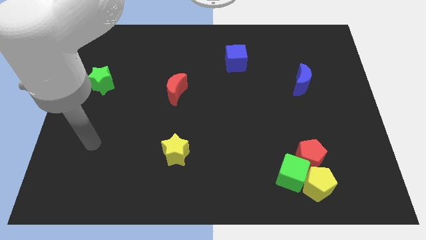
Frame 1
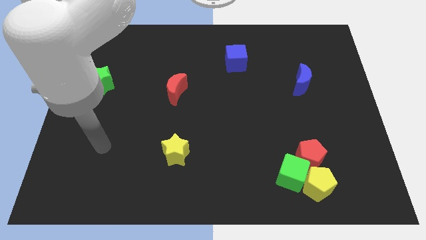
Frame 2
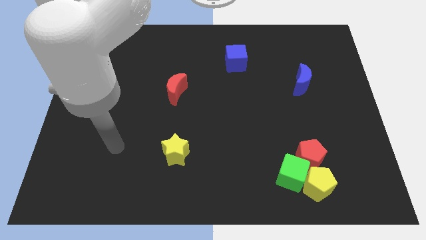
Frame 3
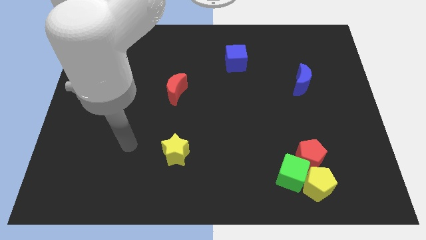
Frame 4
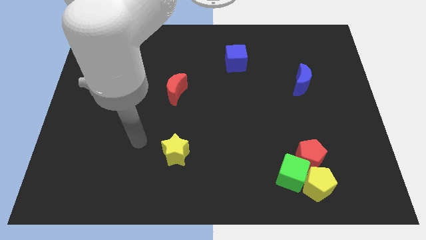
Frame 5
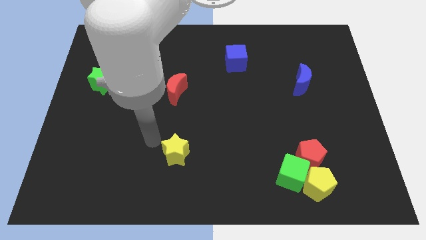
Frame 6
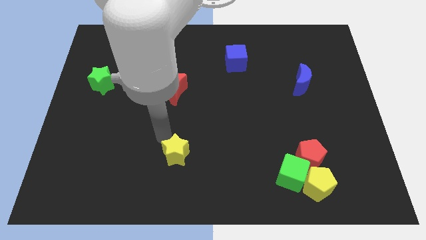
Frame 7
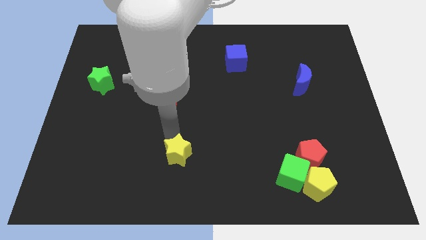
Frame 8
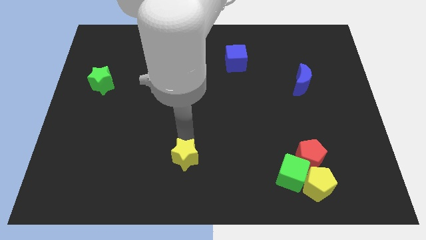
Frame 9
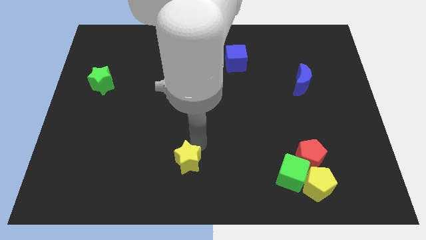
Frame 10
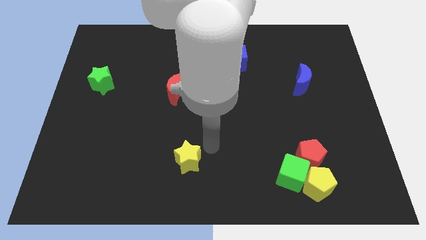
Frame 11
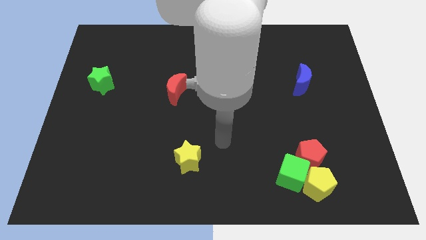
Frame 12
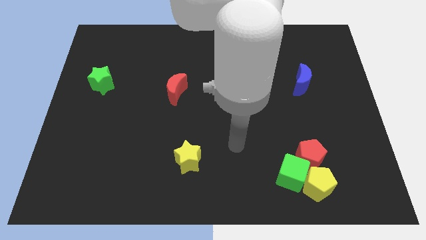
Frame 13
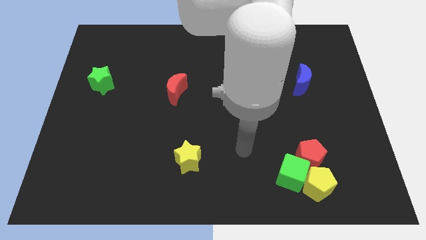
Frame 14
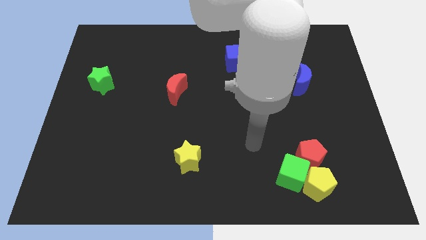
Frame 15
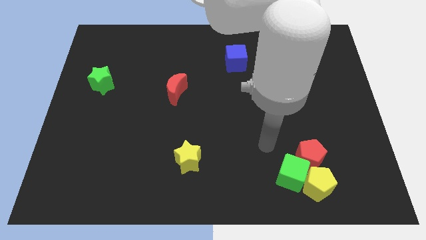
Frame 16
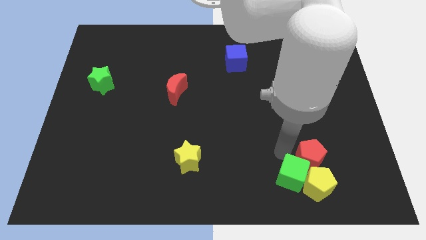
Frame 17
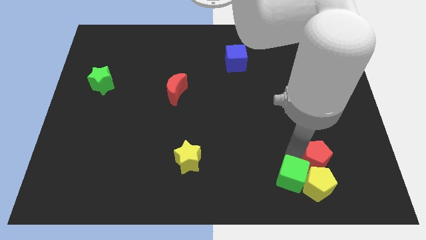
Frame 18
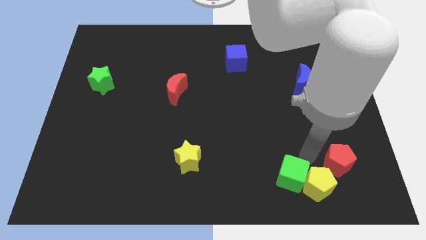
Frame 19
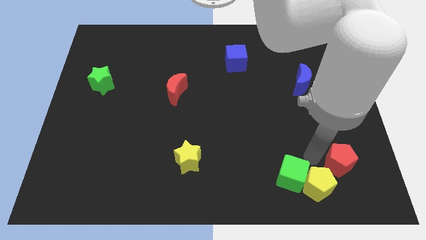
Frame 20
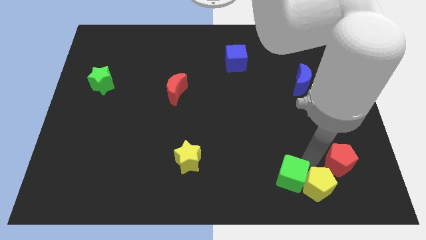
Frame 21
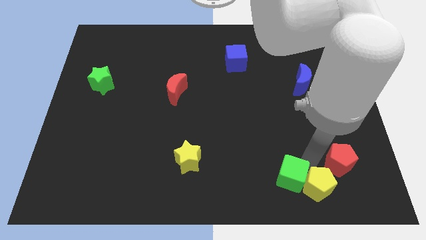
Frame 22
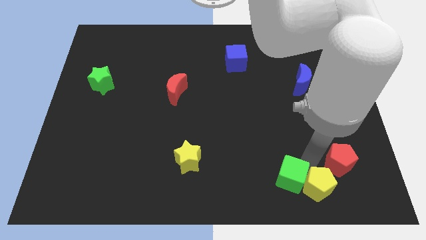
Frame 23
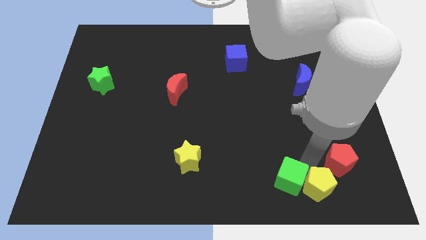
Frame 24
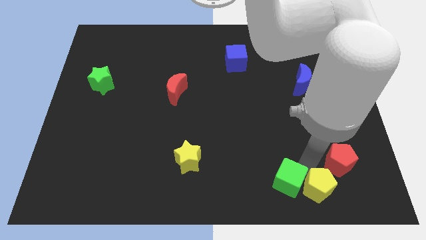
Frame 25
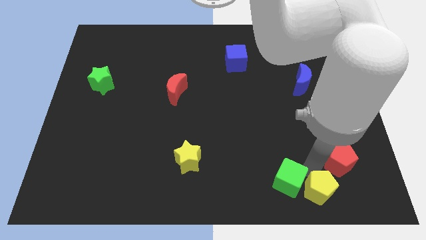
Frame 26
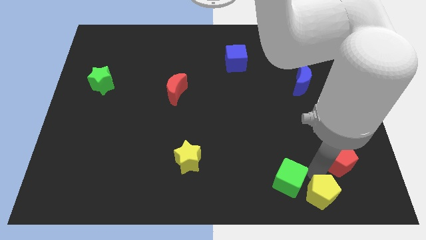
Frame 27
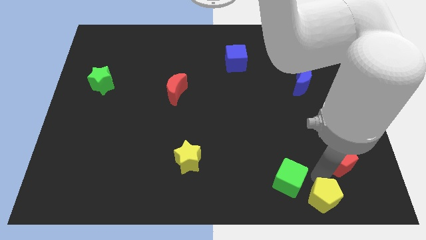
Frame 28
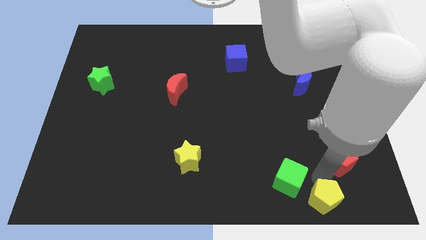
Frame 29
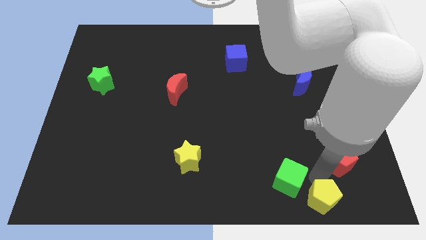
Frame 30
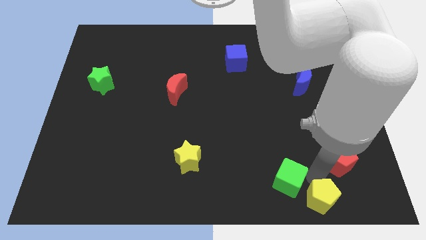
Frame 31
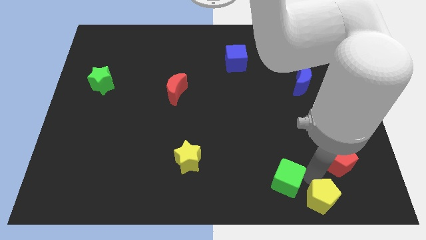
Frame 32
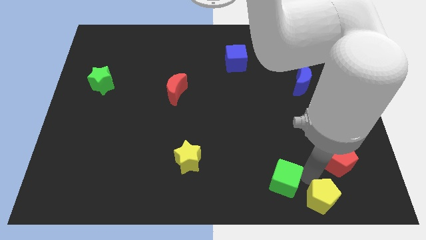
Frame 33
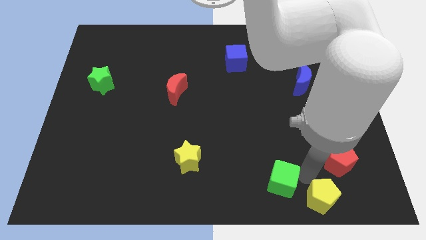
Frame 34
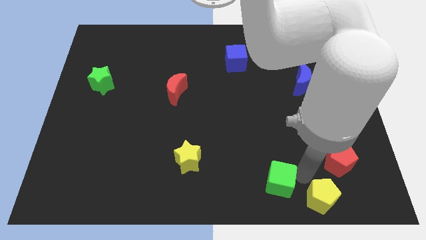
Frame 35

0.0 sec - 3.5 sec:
pull the green cube apart from the yellow pentagon and red pentagon

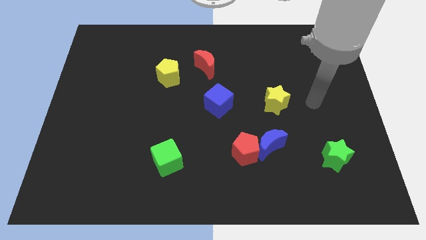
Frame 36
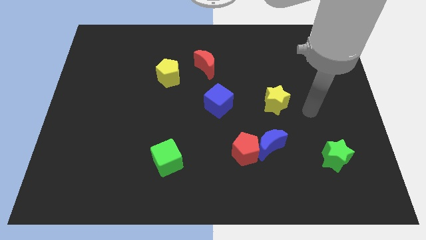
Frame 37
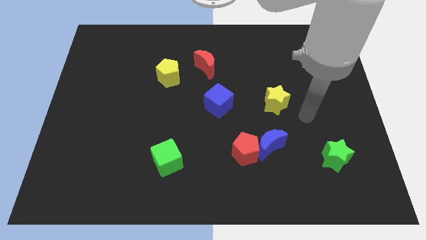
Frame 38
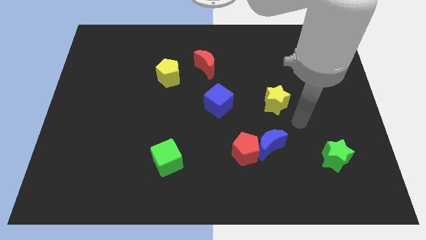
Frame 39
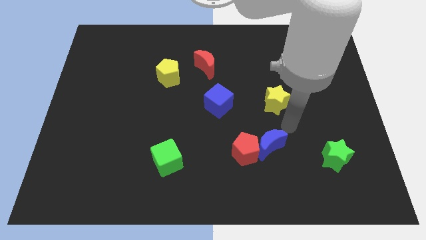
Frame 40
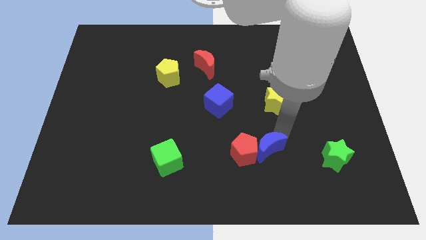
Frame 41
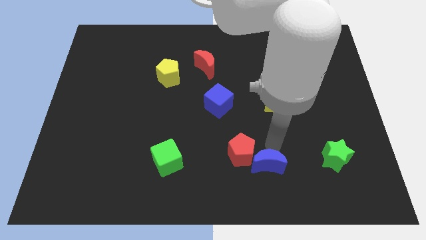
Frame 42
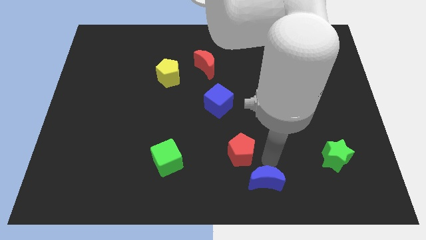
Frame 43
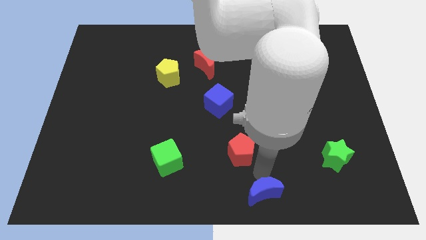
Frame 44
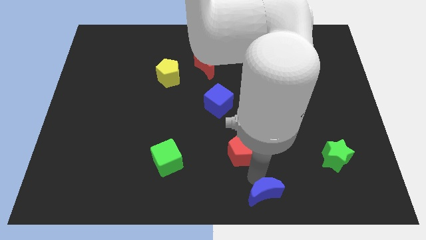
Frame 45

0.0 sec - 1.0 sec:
move the red pentagon away from the blue moon

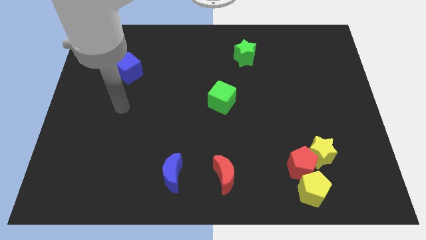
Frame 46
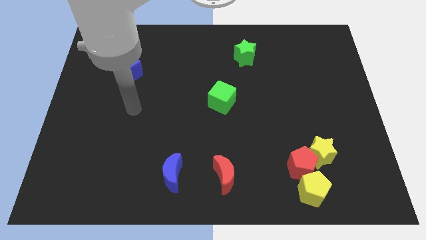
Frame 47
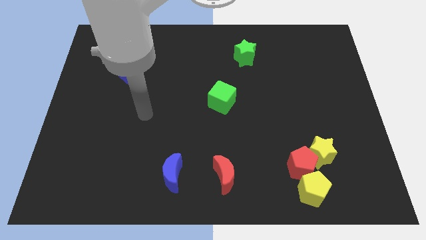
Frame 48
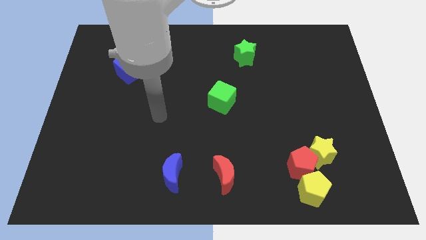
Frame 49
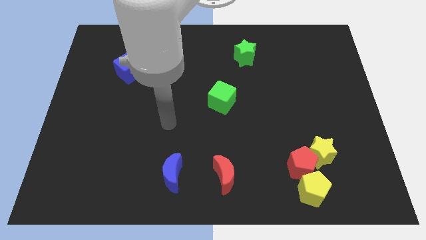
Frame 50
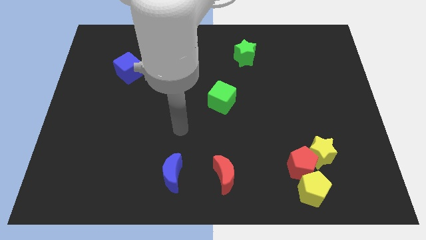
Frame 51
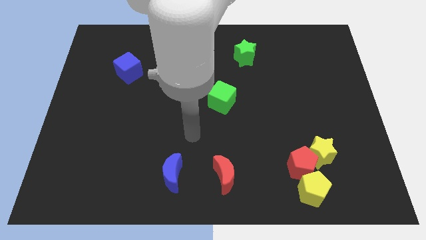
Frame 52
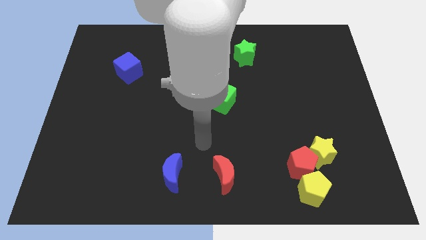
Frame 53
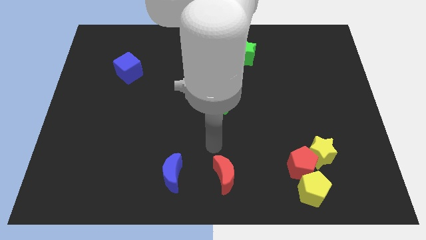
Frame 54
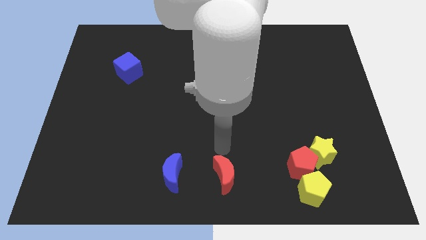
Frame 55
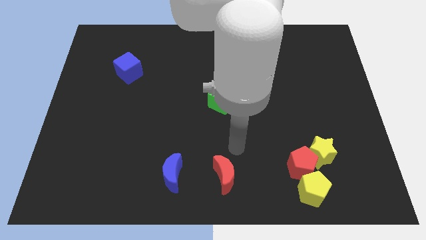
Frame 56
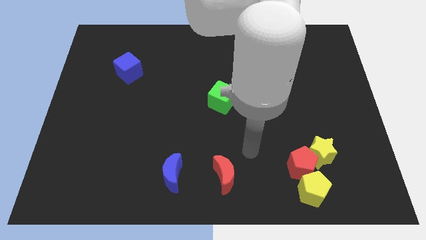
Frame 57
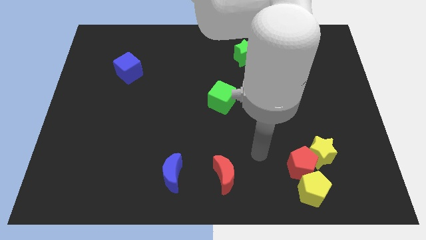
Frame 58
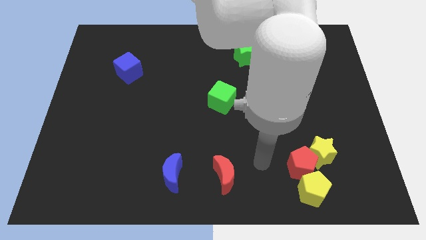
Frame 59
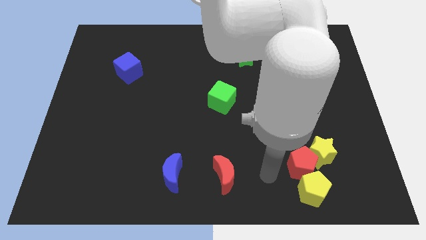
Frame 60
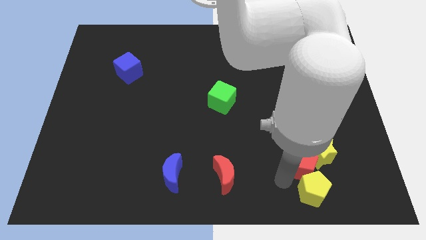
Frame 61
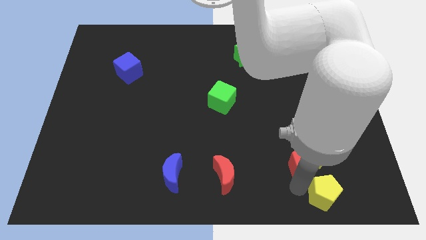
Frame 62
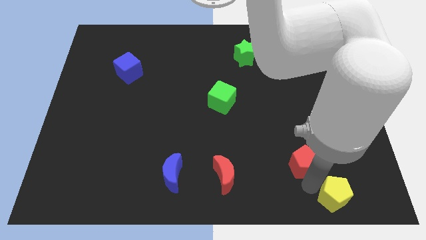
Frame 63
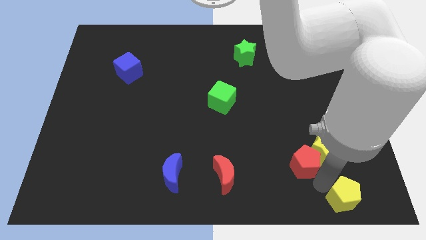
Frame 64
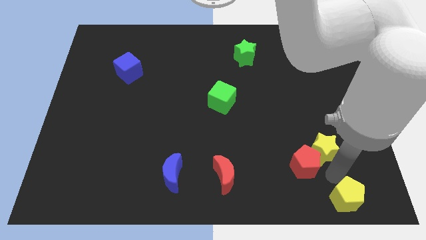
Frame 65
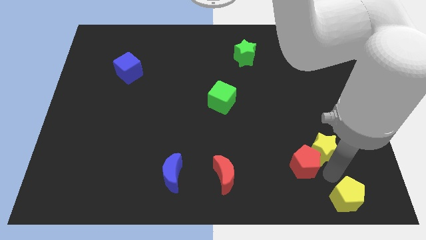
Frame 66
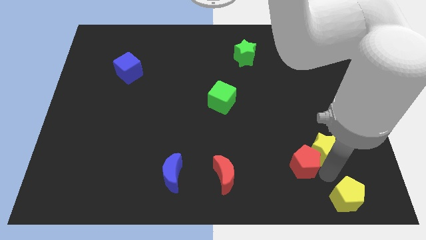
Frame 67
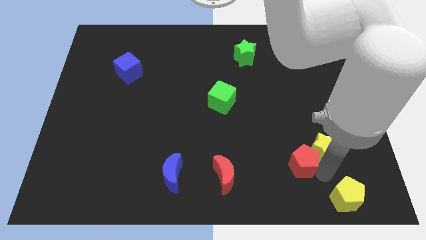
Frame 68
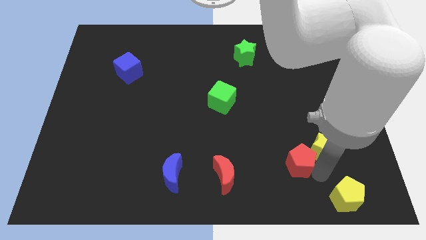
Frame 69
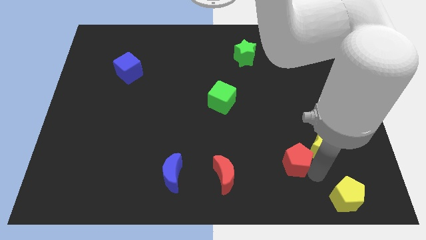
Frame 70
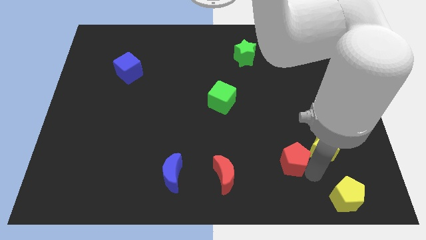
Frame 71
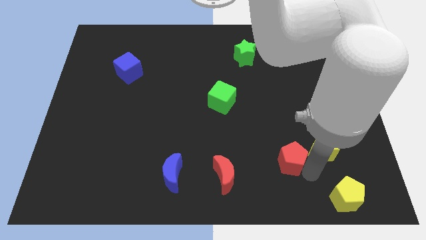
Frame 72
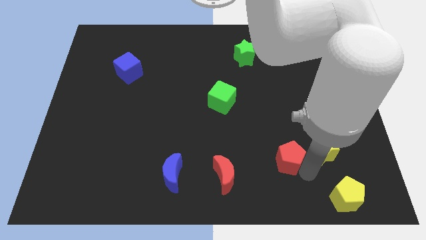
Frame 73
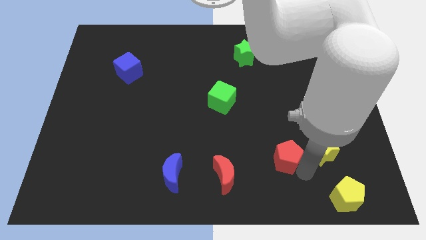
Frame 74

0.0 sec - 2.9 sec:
move the red pentagon away from the yellow star and yellow pentagon

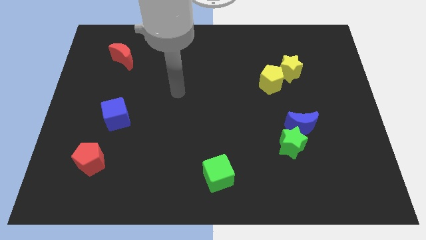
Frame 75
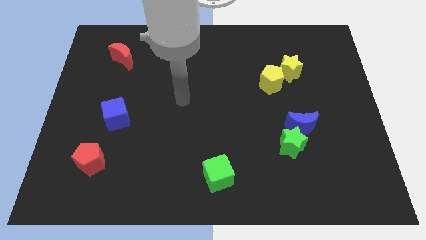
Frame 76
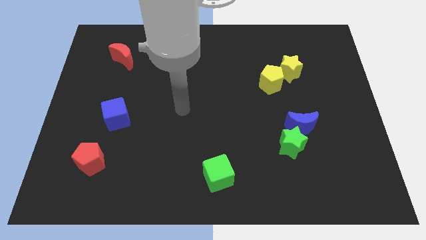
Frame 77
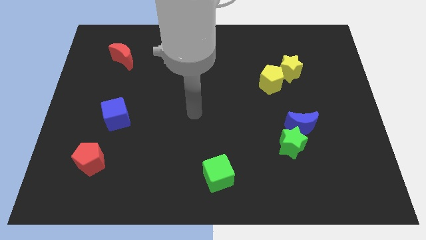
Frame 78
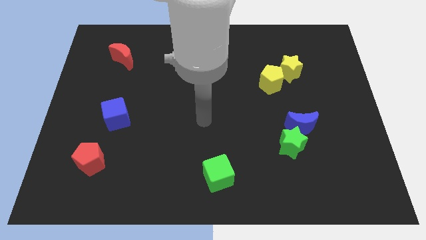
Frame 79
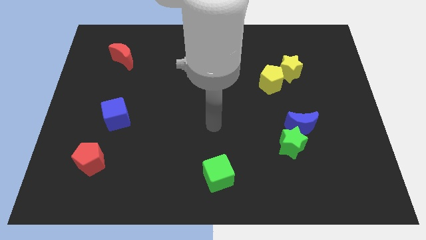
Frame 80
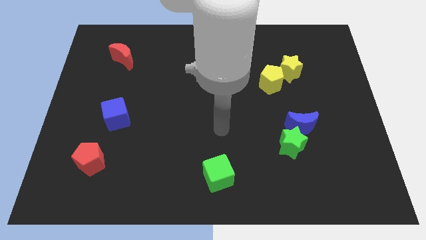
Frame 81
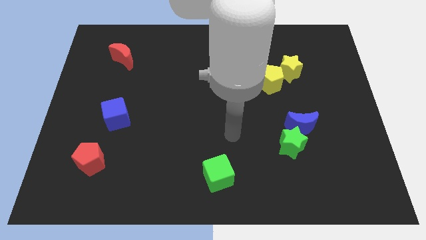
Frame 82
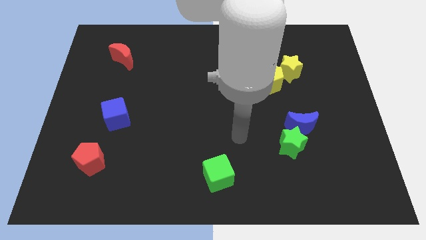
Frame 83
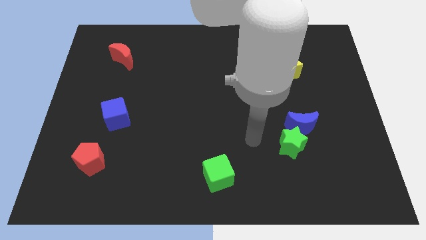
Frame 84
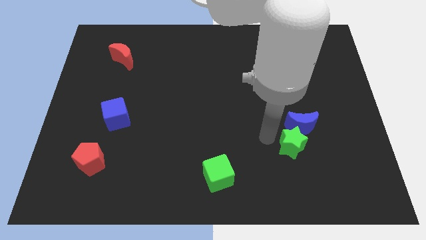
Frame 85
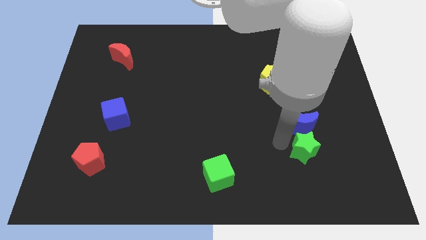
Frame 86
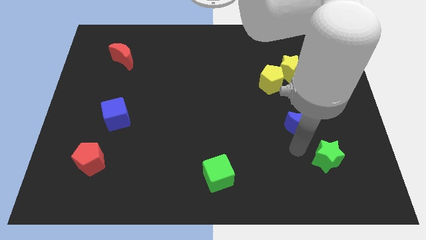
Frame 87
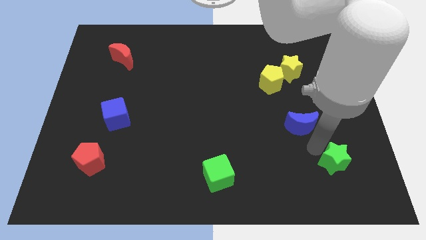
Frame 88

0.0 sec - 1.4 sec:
separate the blue moon from the green star

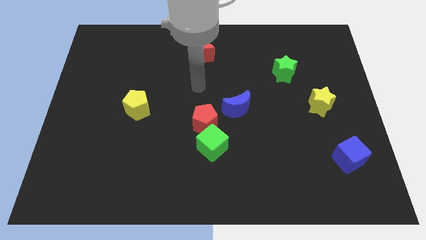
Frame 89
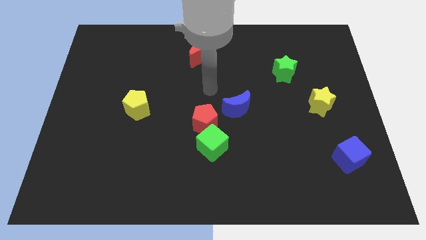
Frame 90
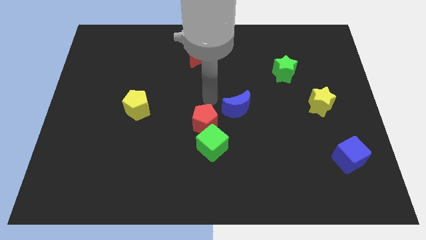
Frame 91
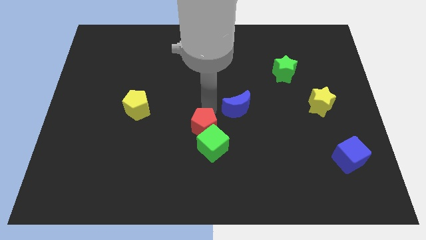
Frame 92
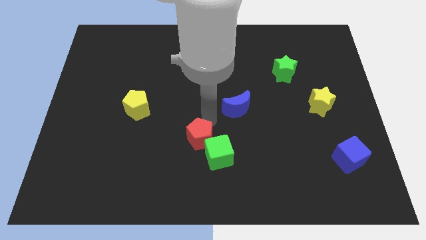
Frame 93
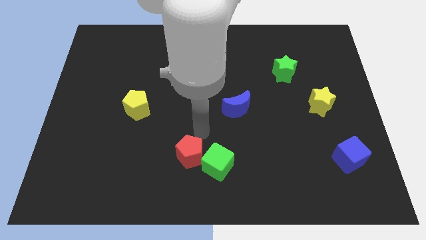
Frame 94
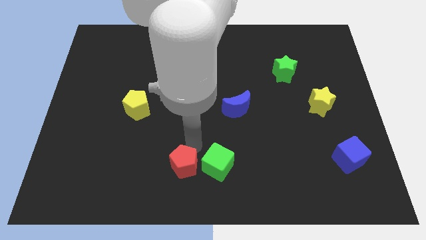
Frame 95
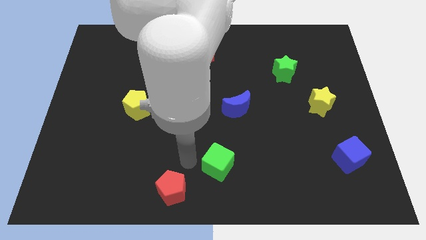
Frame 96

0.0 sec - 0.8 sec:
separate the green cube from the red pentagon
